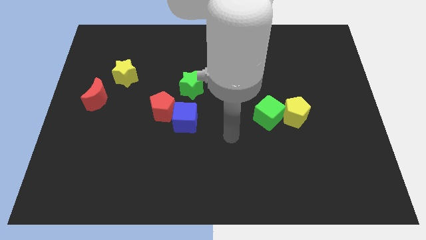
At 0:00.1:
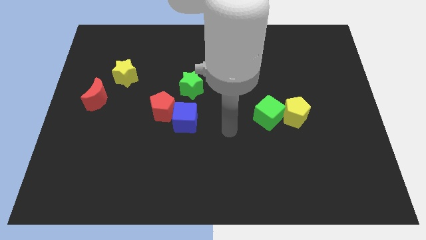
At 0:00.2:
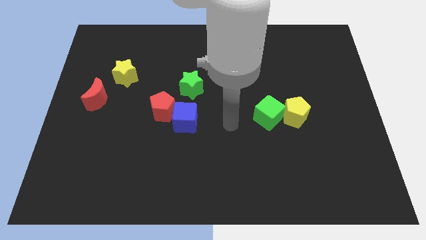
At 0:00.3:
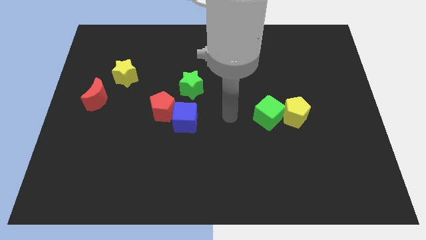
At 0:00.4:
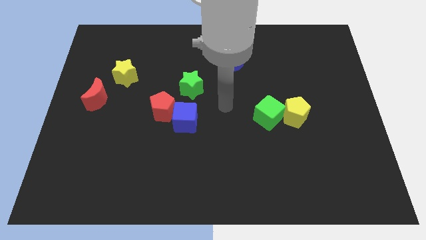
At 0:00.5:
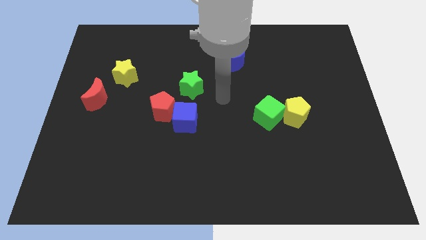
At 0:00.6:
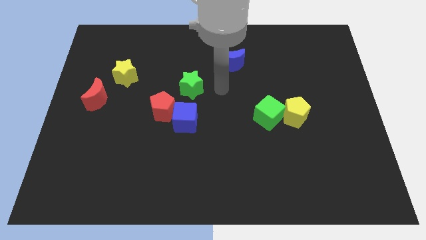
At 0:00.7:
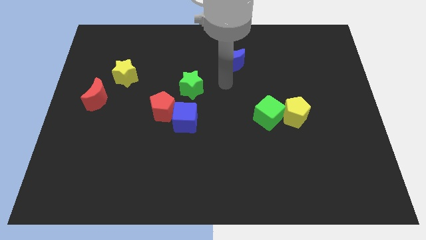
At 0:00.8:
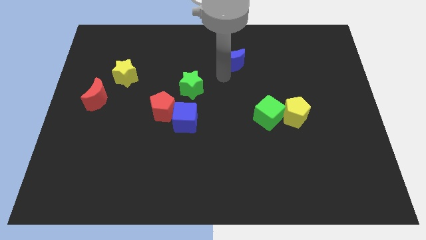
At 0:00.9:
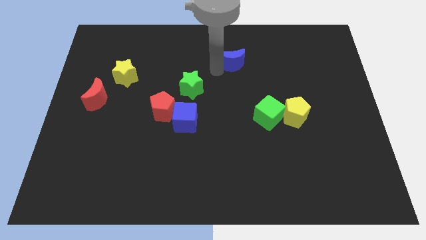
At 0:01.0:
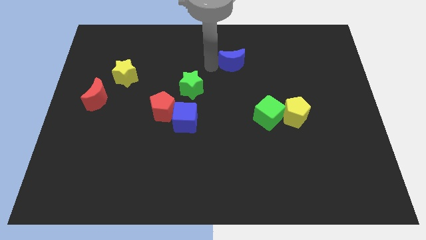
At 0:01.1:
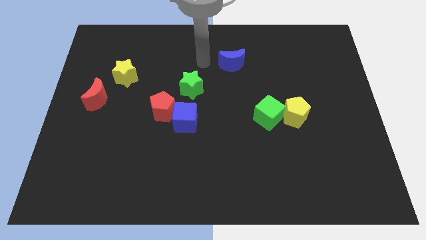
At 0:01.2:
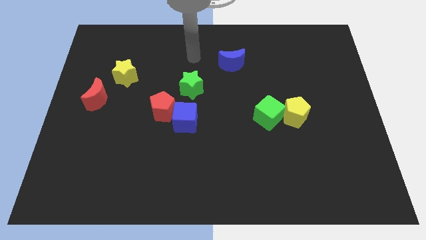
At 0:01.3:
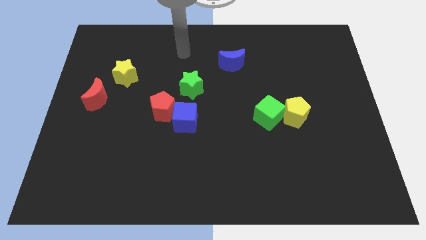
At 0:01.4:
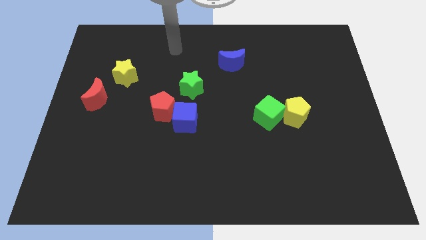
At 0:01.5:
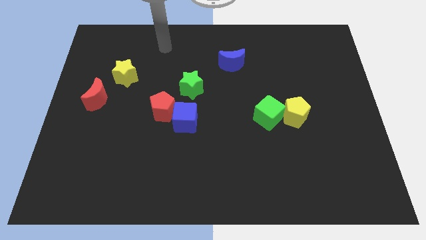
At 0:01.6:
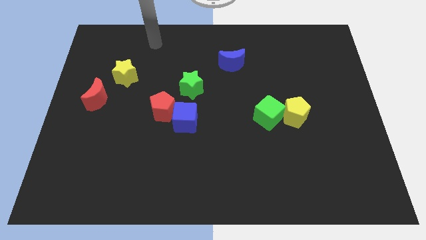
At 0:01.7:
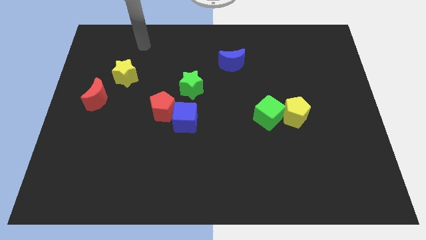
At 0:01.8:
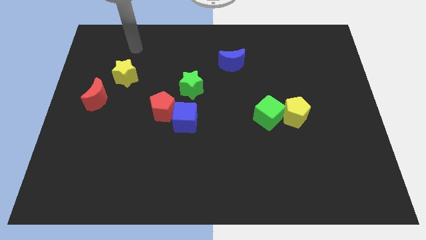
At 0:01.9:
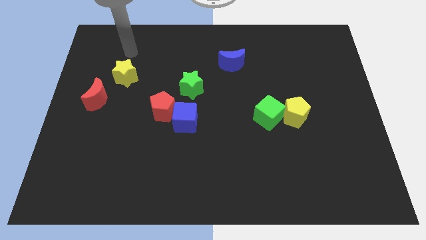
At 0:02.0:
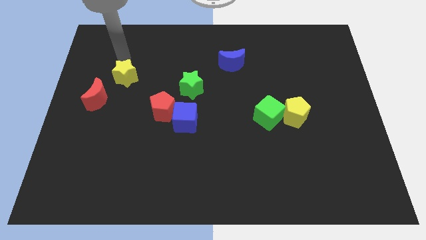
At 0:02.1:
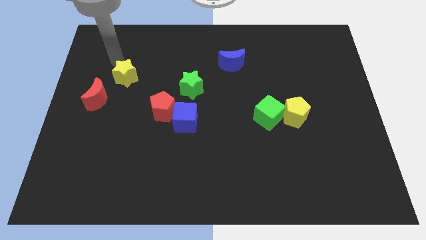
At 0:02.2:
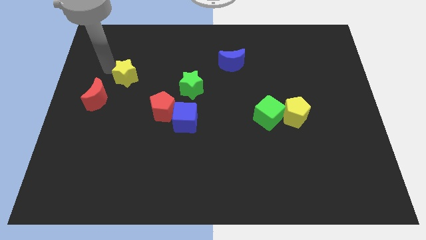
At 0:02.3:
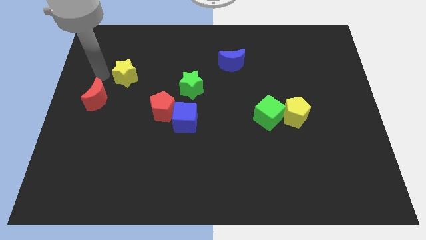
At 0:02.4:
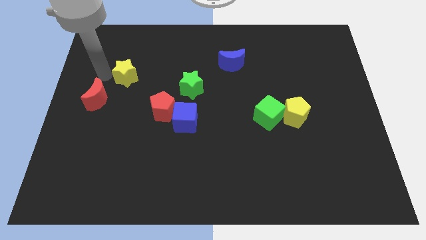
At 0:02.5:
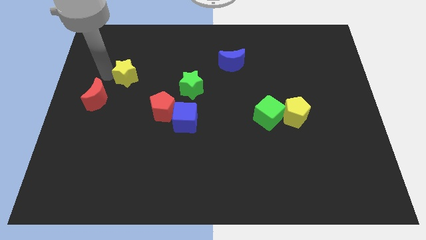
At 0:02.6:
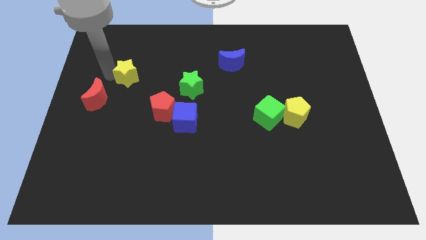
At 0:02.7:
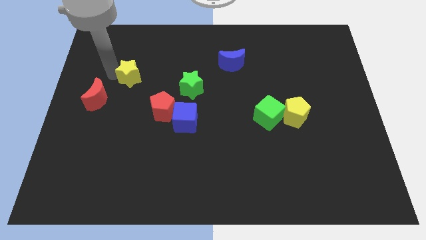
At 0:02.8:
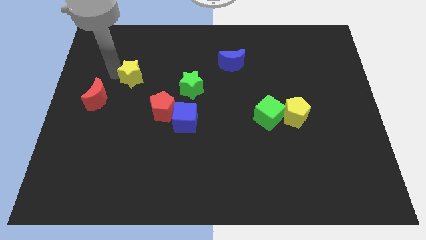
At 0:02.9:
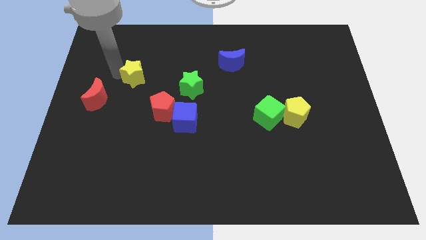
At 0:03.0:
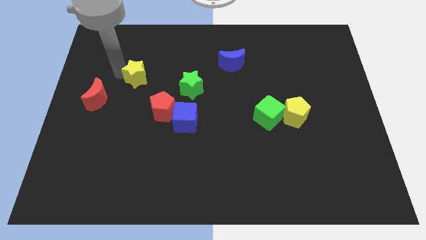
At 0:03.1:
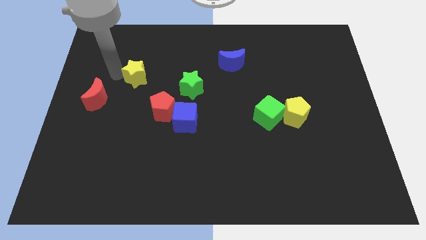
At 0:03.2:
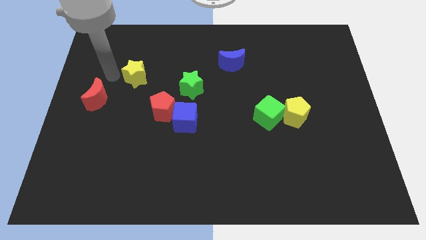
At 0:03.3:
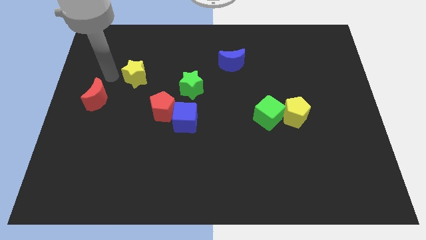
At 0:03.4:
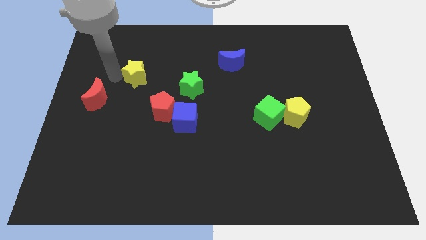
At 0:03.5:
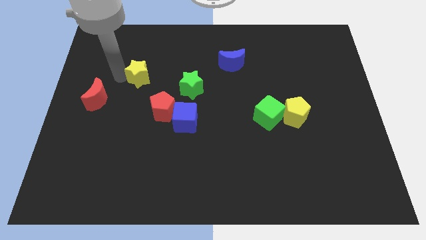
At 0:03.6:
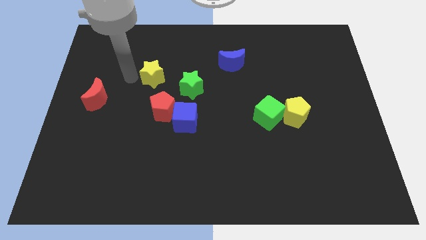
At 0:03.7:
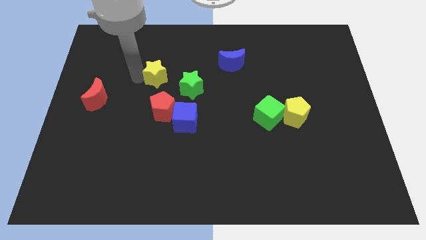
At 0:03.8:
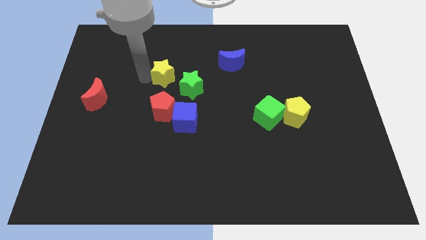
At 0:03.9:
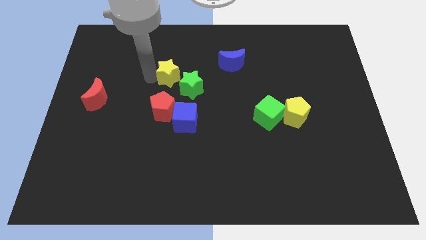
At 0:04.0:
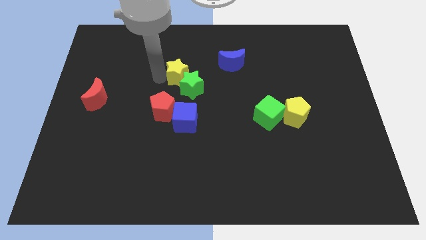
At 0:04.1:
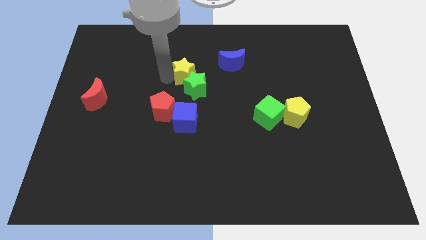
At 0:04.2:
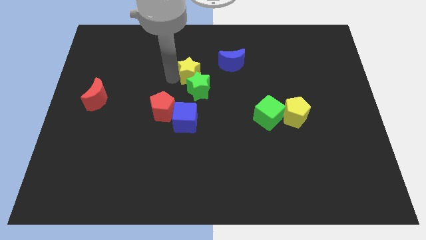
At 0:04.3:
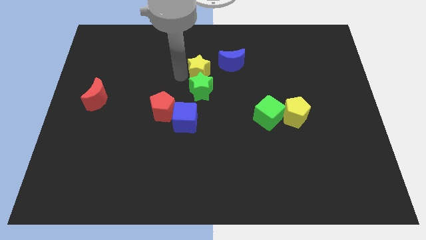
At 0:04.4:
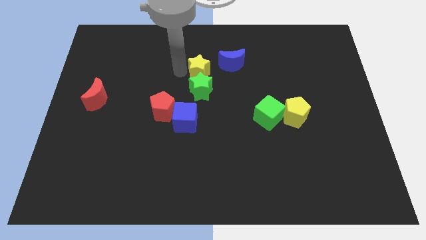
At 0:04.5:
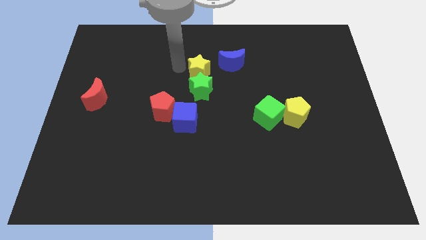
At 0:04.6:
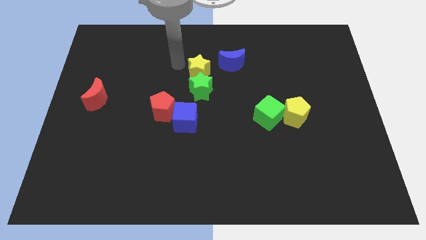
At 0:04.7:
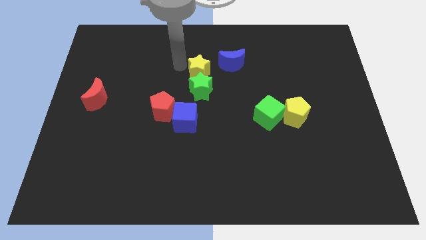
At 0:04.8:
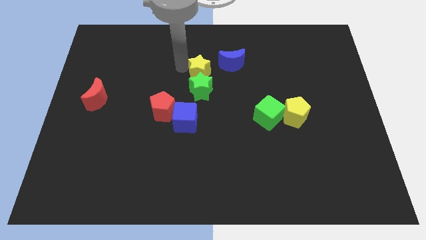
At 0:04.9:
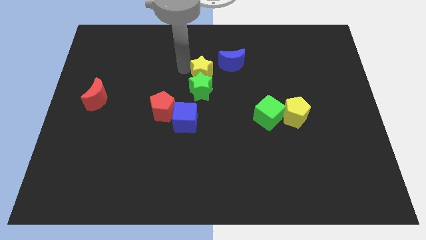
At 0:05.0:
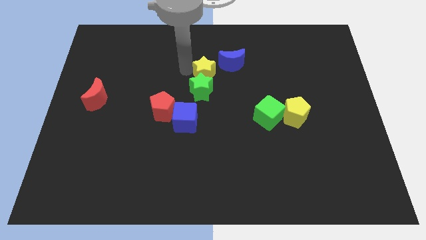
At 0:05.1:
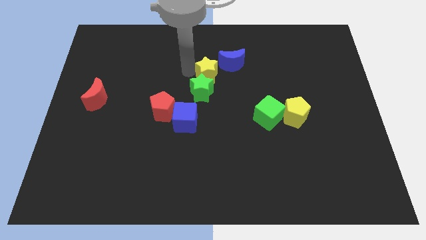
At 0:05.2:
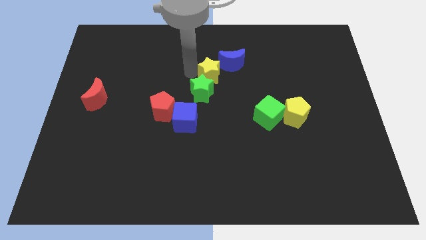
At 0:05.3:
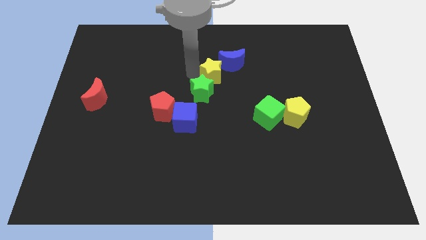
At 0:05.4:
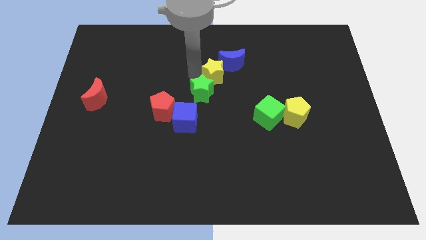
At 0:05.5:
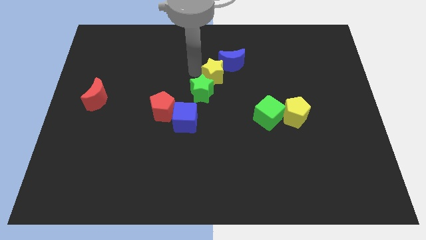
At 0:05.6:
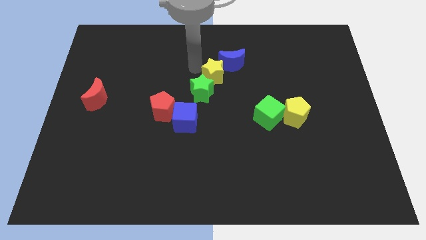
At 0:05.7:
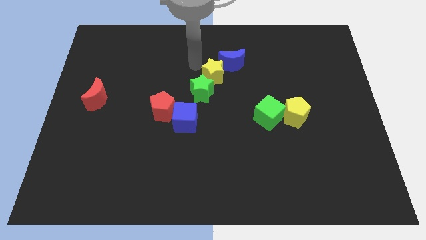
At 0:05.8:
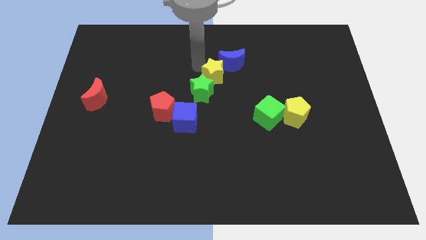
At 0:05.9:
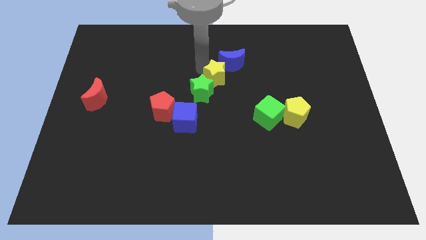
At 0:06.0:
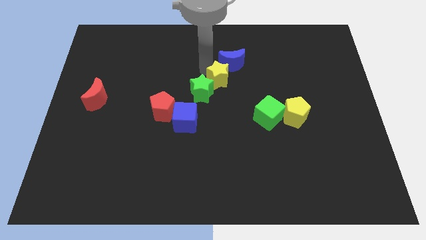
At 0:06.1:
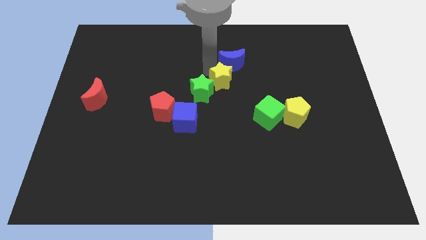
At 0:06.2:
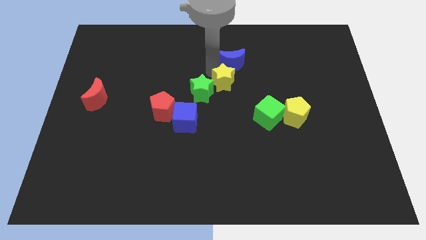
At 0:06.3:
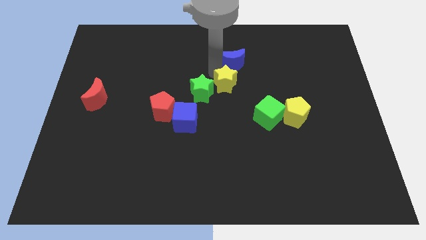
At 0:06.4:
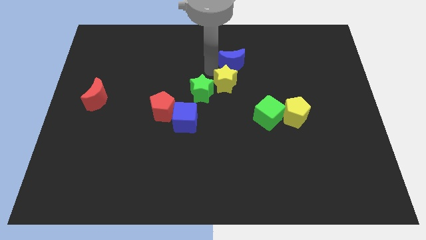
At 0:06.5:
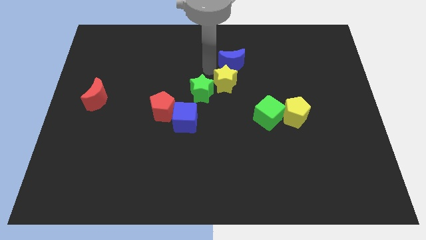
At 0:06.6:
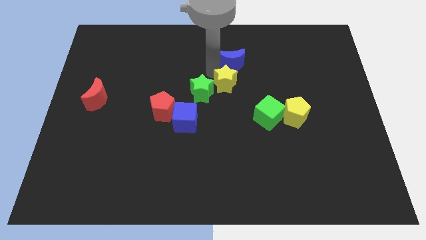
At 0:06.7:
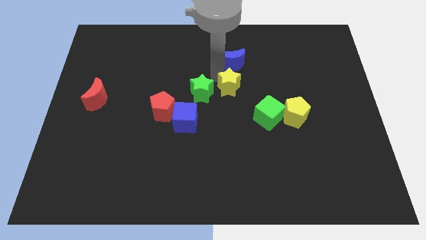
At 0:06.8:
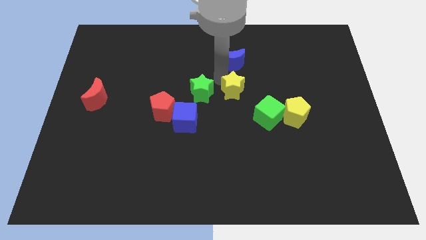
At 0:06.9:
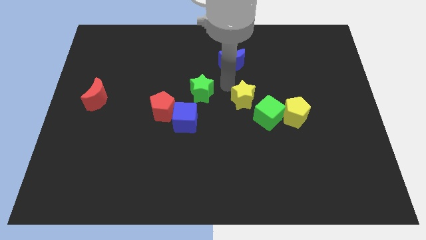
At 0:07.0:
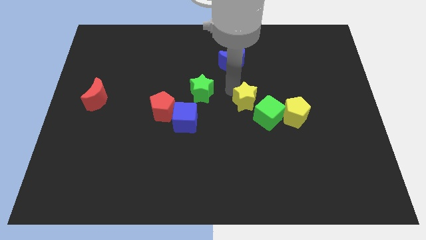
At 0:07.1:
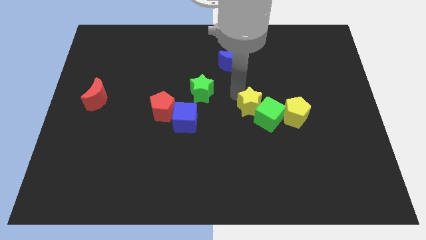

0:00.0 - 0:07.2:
slide the yellow star to the green cube
